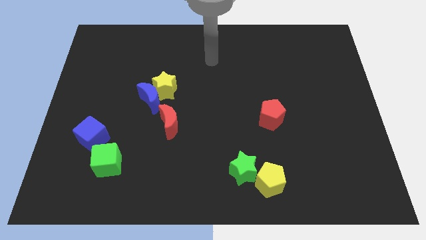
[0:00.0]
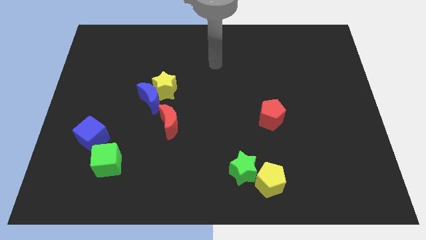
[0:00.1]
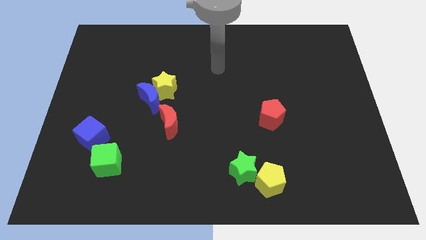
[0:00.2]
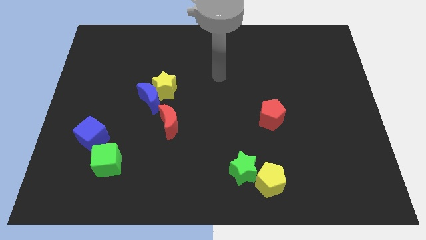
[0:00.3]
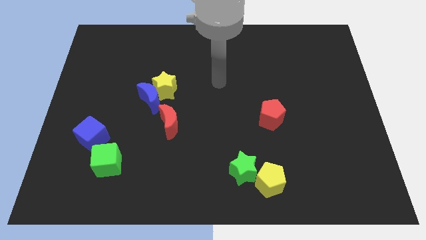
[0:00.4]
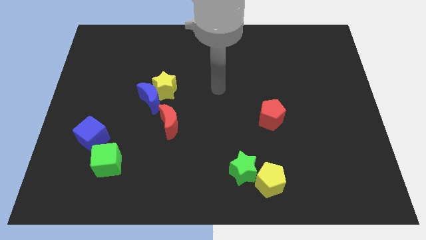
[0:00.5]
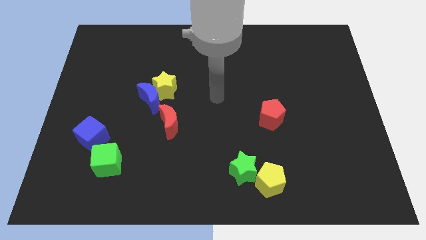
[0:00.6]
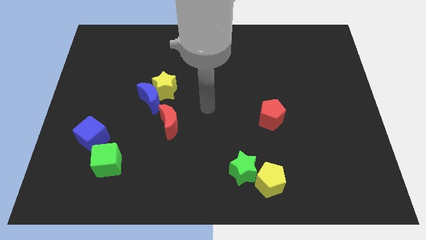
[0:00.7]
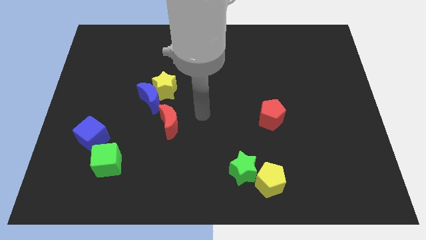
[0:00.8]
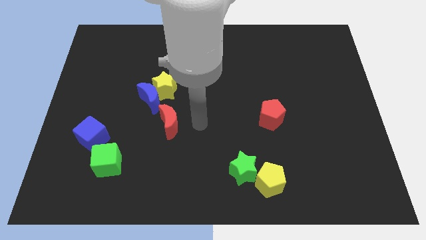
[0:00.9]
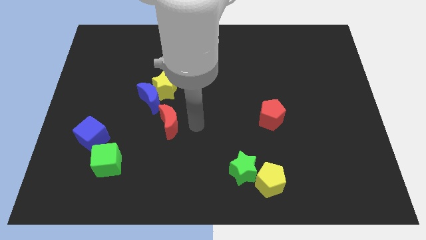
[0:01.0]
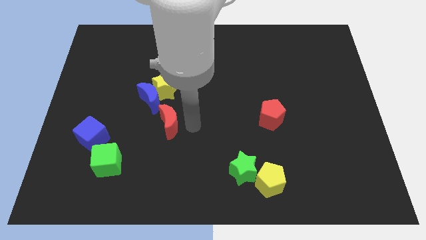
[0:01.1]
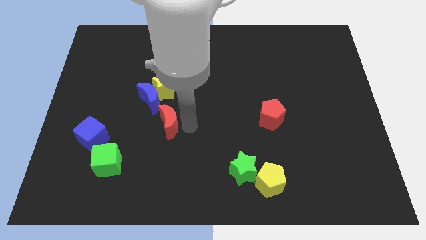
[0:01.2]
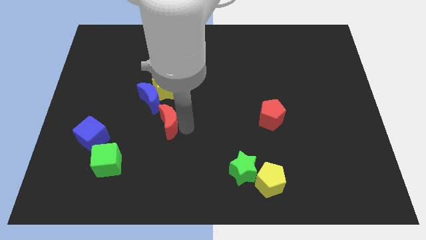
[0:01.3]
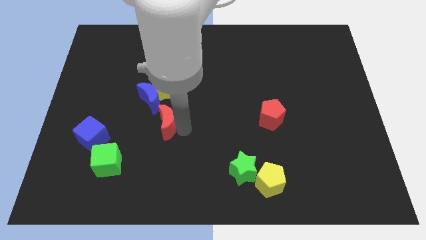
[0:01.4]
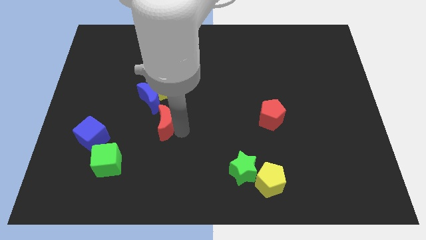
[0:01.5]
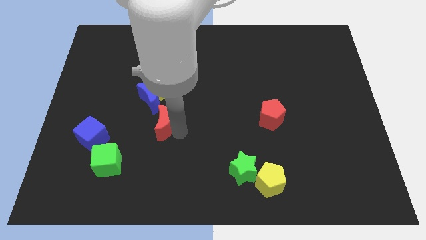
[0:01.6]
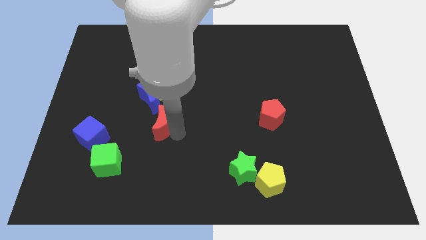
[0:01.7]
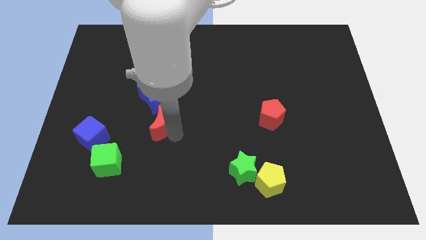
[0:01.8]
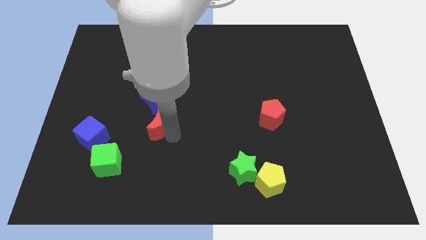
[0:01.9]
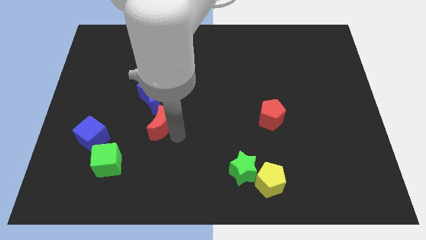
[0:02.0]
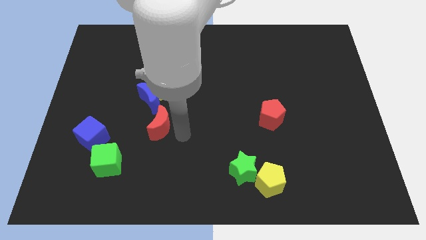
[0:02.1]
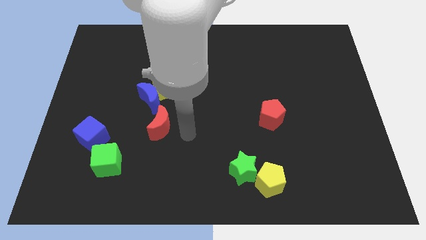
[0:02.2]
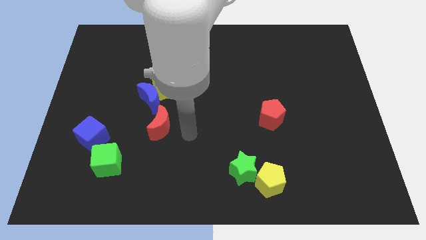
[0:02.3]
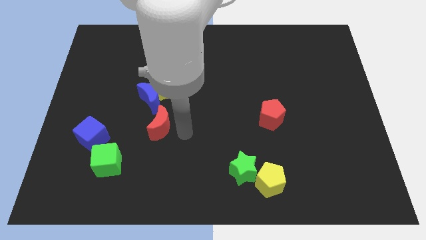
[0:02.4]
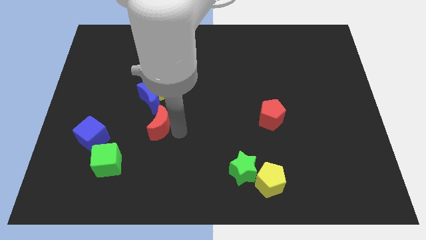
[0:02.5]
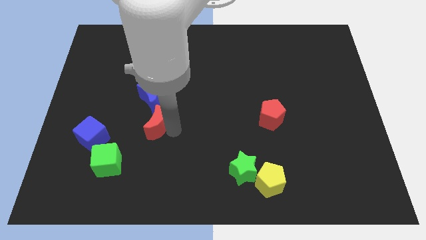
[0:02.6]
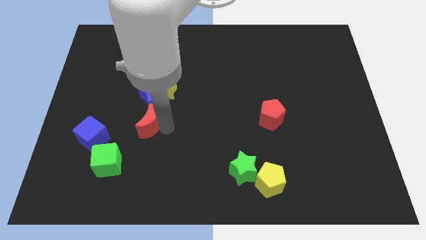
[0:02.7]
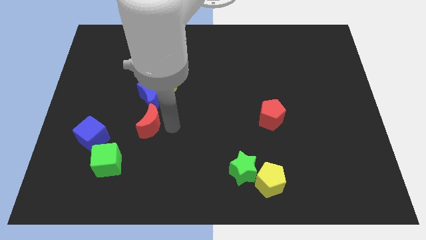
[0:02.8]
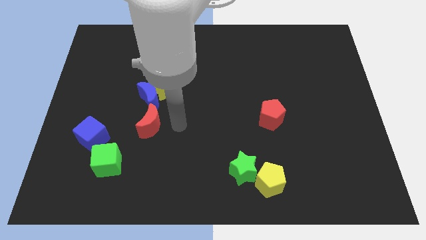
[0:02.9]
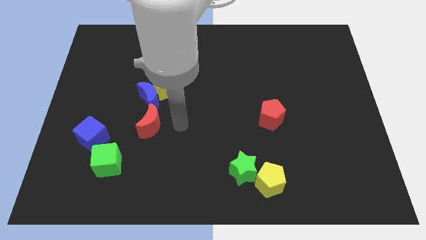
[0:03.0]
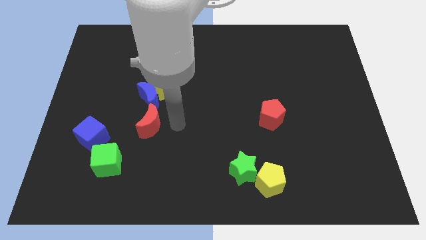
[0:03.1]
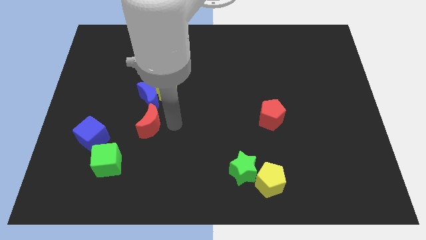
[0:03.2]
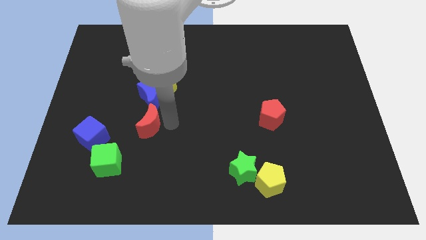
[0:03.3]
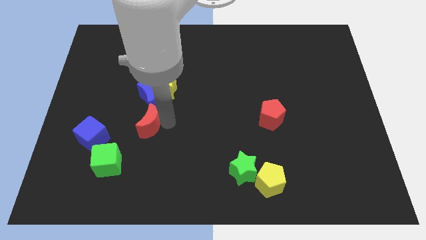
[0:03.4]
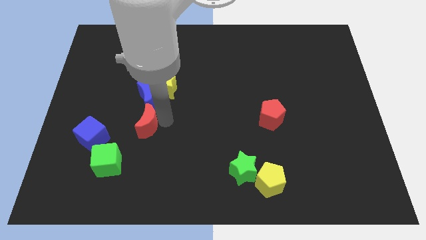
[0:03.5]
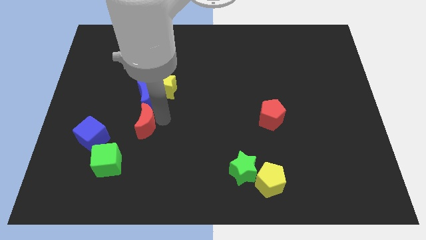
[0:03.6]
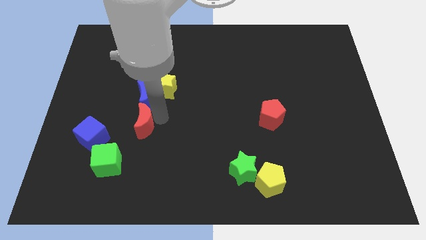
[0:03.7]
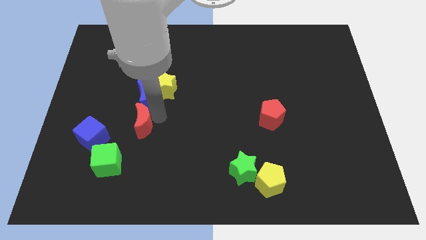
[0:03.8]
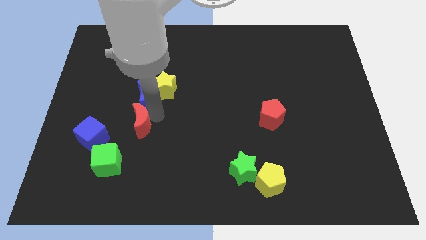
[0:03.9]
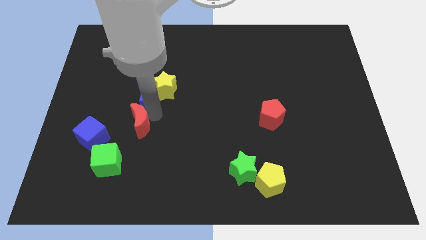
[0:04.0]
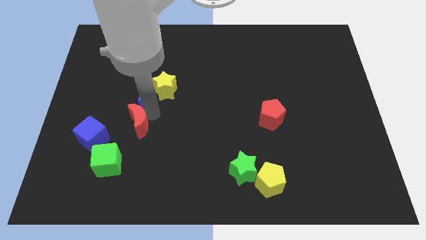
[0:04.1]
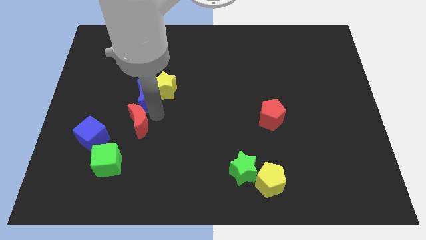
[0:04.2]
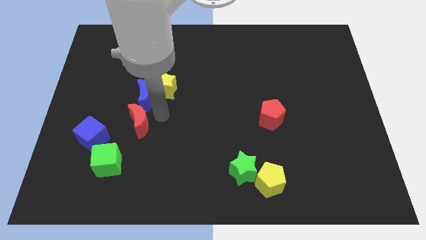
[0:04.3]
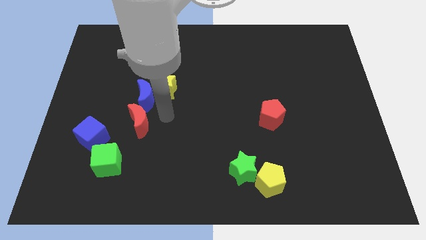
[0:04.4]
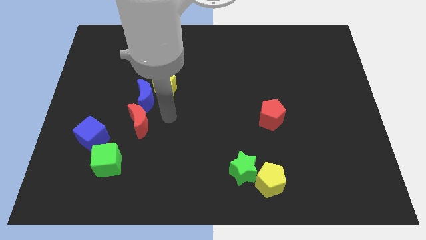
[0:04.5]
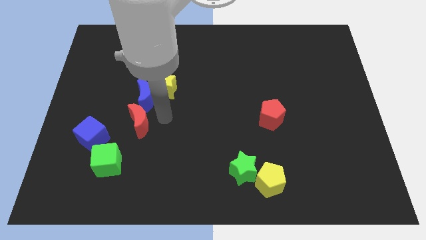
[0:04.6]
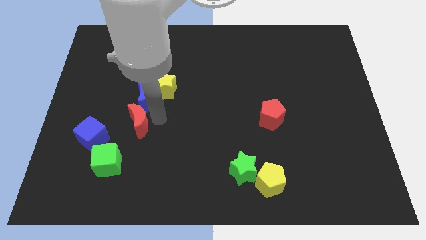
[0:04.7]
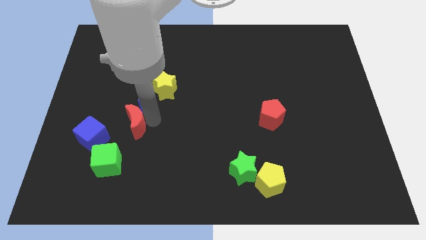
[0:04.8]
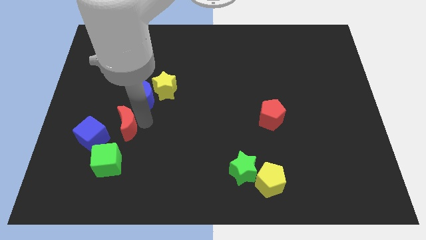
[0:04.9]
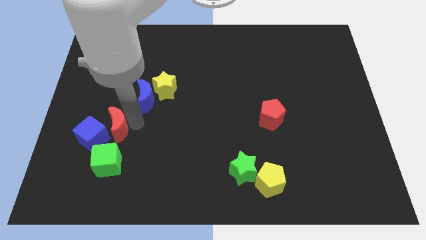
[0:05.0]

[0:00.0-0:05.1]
push the red moon close to the blue cube

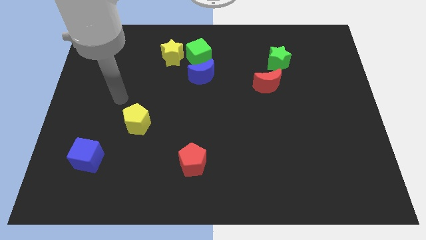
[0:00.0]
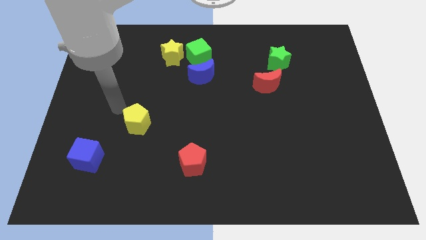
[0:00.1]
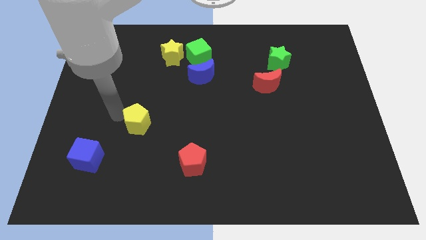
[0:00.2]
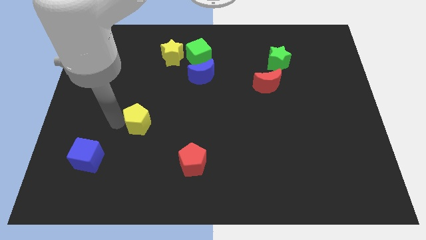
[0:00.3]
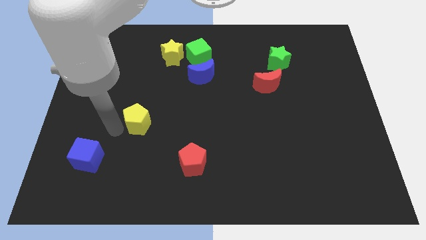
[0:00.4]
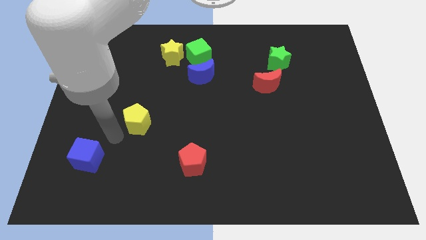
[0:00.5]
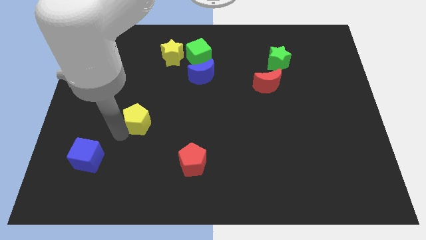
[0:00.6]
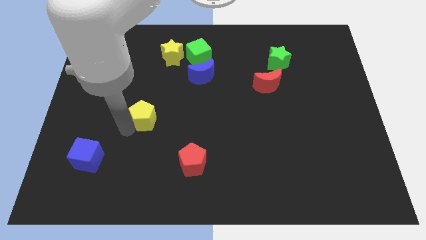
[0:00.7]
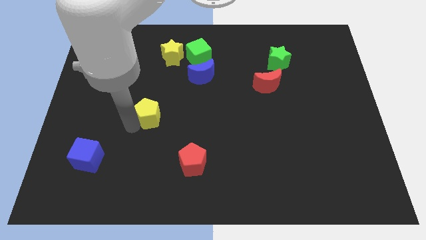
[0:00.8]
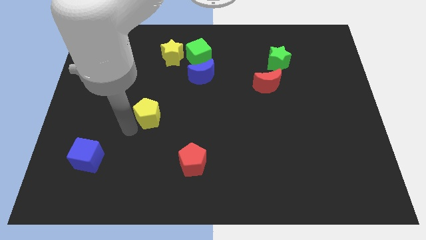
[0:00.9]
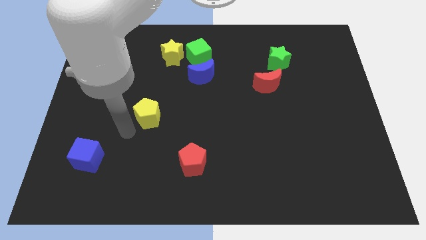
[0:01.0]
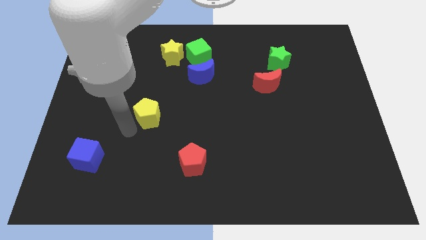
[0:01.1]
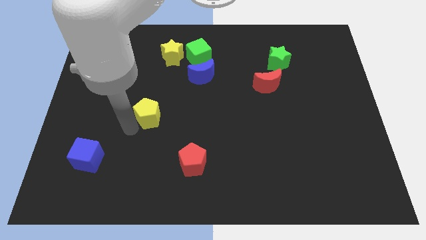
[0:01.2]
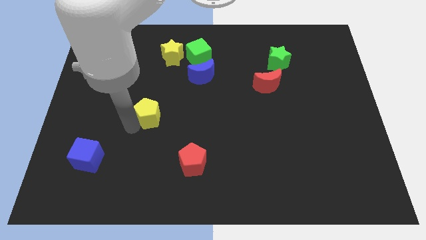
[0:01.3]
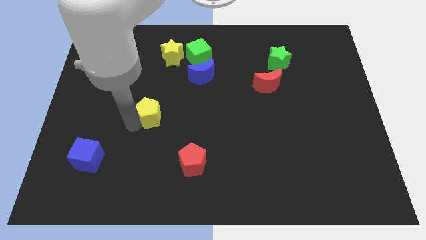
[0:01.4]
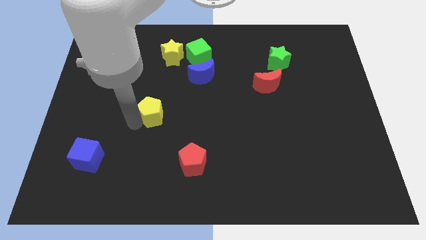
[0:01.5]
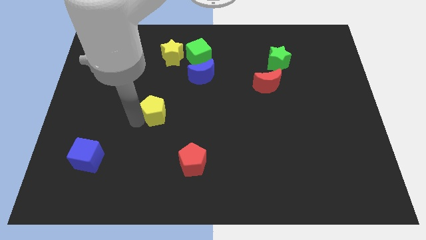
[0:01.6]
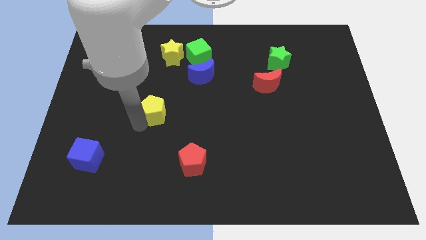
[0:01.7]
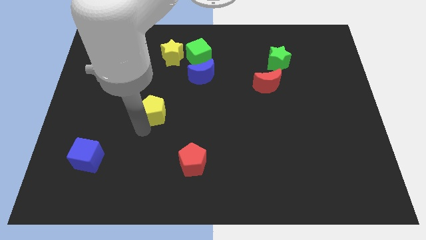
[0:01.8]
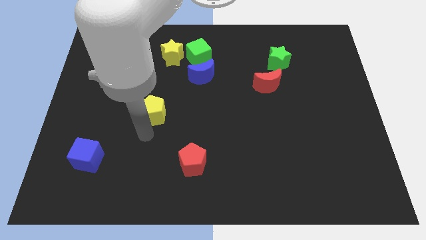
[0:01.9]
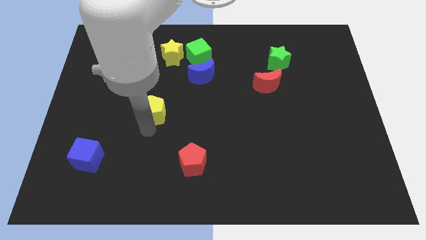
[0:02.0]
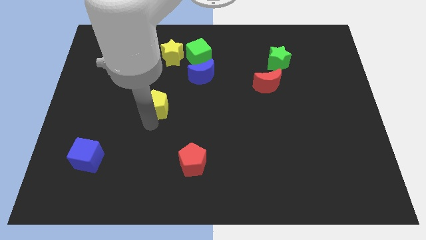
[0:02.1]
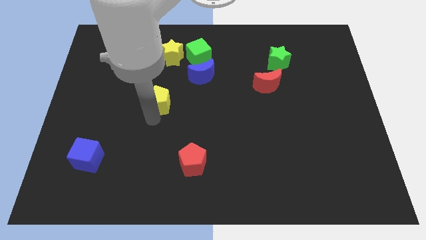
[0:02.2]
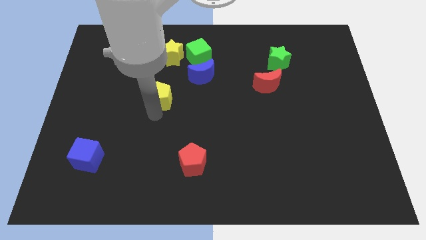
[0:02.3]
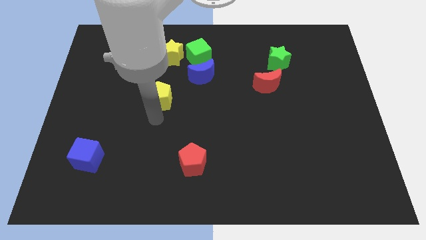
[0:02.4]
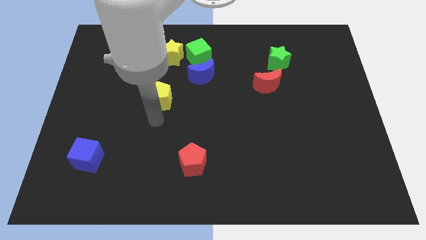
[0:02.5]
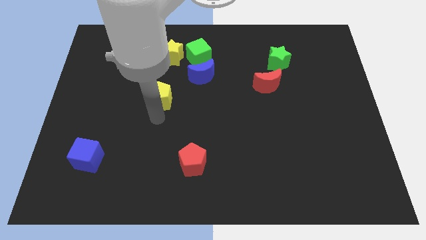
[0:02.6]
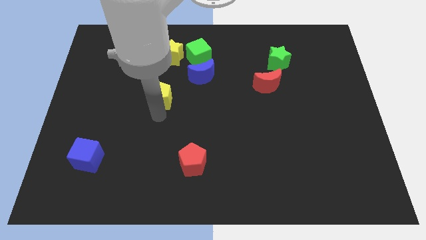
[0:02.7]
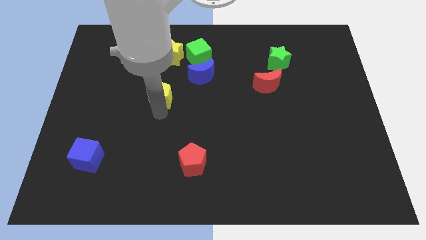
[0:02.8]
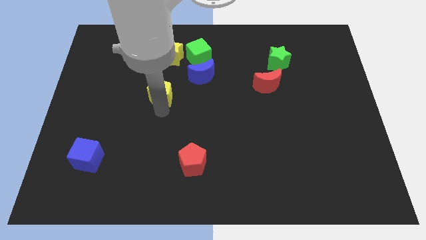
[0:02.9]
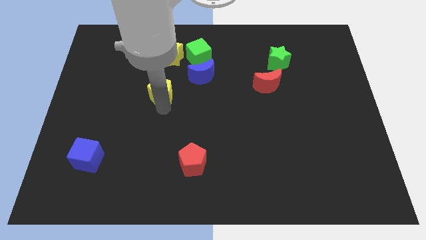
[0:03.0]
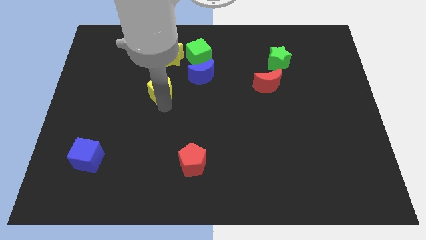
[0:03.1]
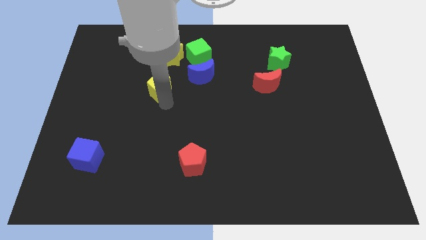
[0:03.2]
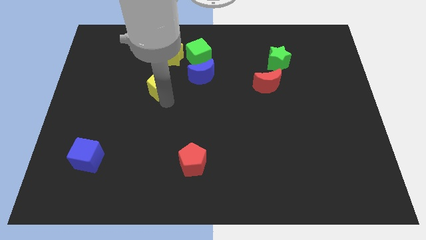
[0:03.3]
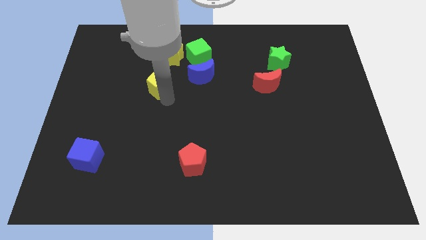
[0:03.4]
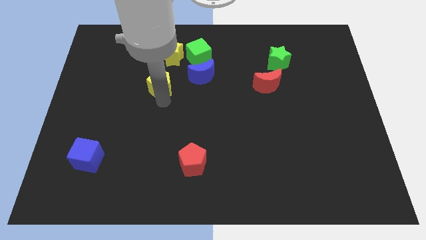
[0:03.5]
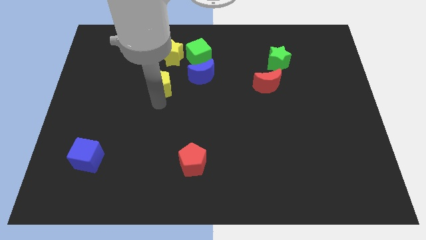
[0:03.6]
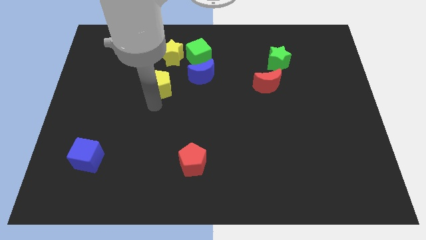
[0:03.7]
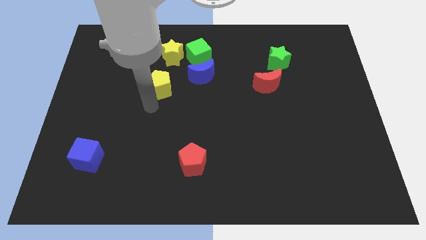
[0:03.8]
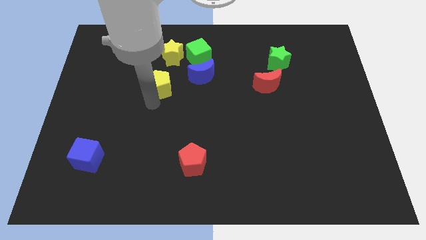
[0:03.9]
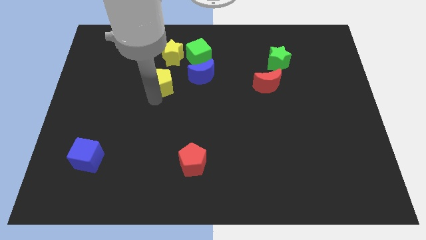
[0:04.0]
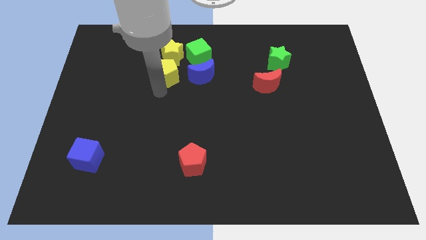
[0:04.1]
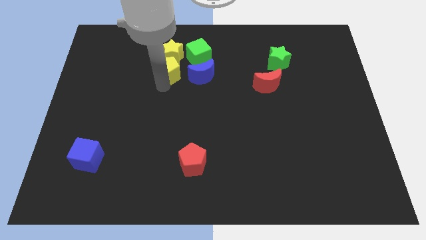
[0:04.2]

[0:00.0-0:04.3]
push the yellow pentagon to the yellow star
